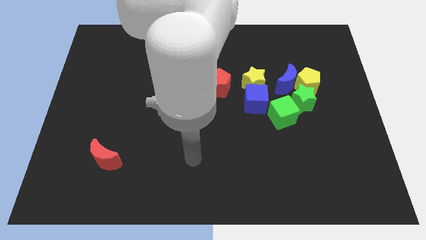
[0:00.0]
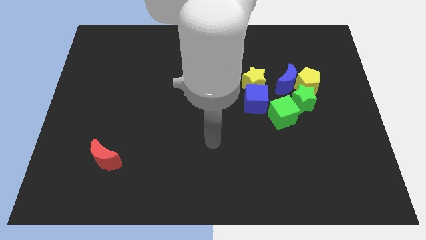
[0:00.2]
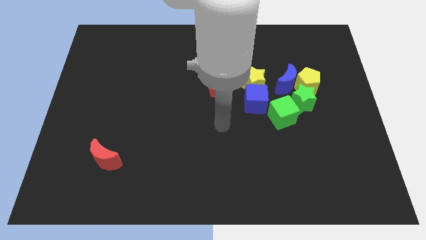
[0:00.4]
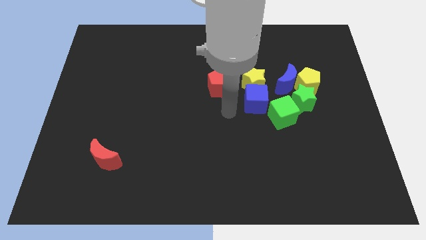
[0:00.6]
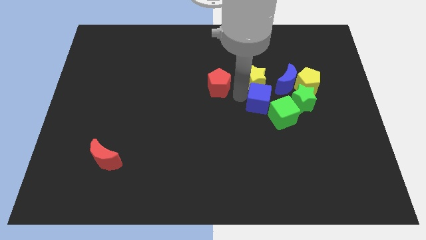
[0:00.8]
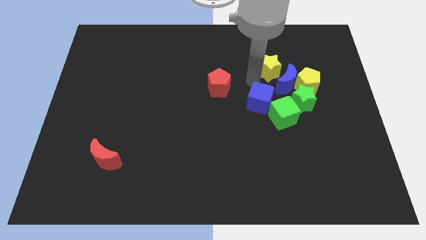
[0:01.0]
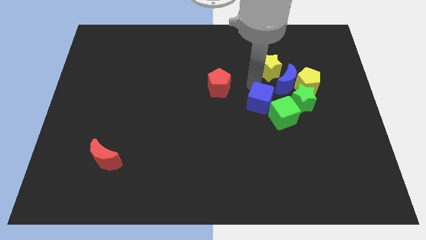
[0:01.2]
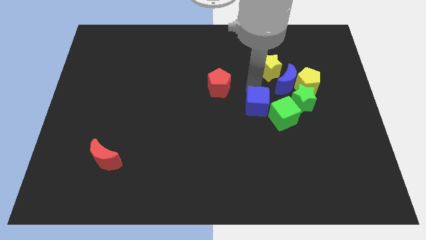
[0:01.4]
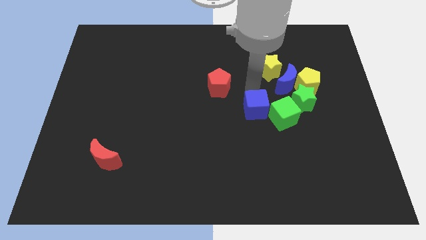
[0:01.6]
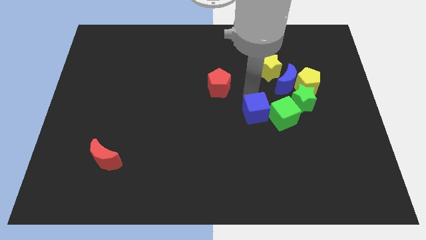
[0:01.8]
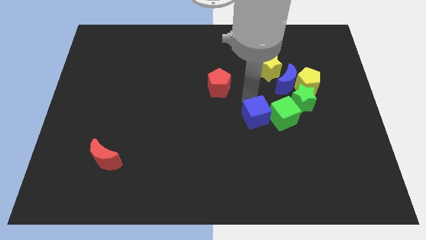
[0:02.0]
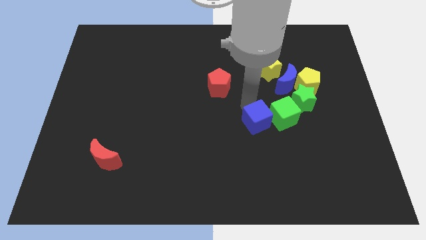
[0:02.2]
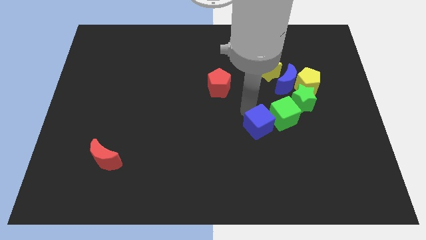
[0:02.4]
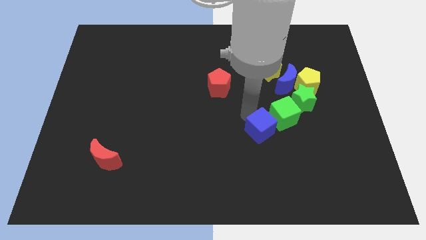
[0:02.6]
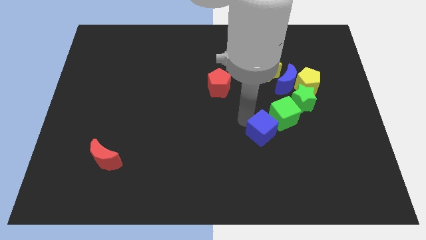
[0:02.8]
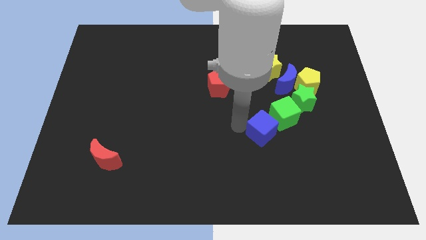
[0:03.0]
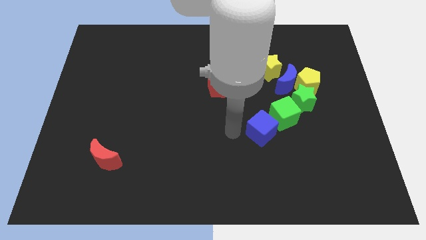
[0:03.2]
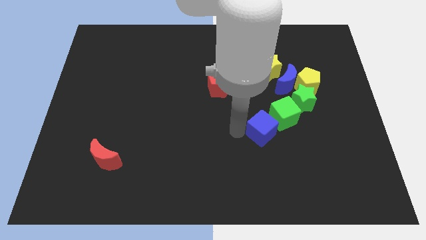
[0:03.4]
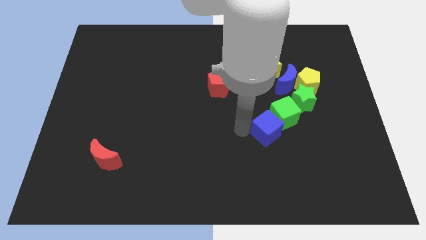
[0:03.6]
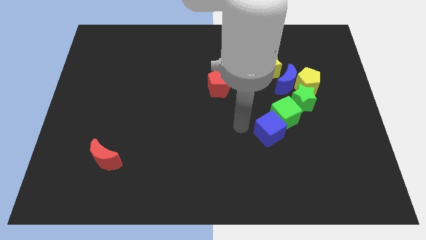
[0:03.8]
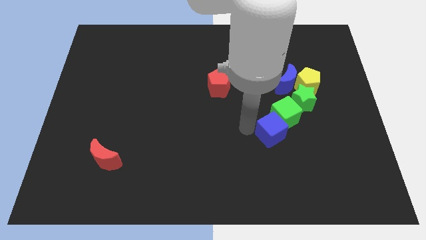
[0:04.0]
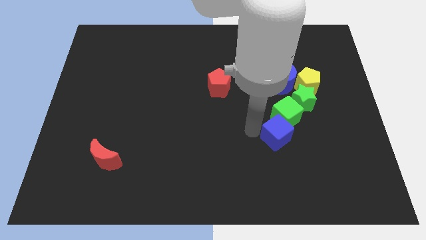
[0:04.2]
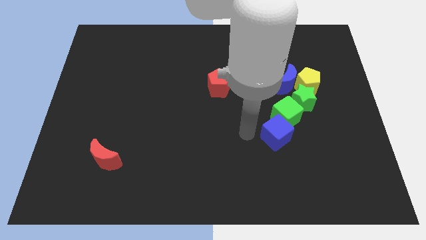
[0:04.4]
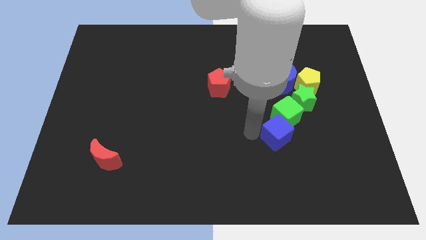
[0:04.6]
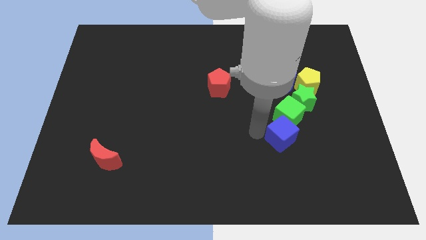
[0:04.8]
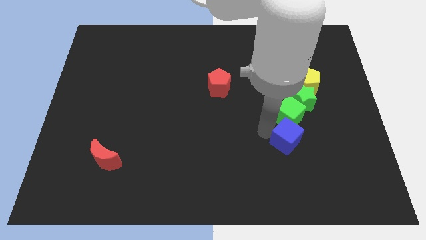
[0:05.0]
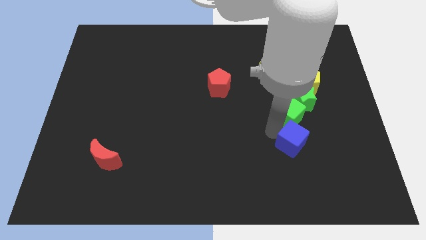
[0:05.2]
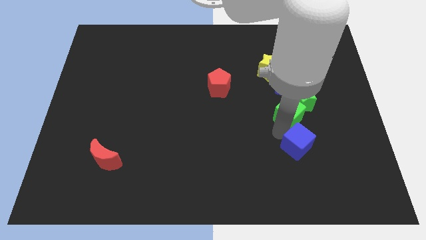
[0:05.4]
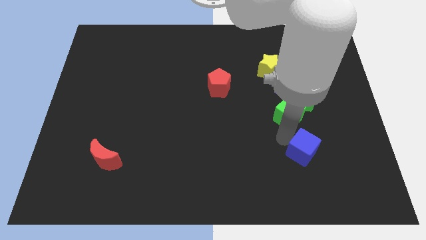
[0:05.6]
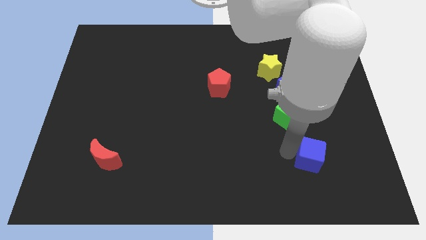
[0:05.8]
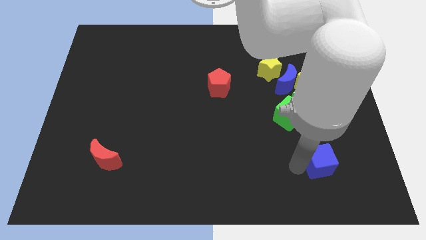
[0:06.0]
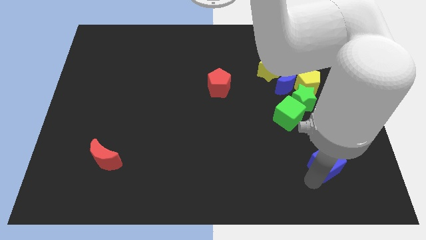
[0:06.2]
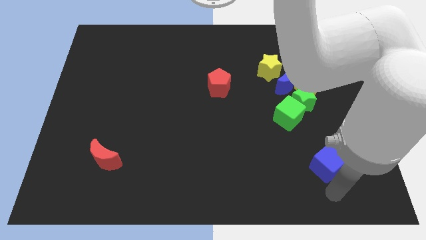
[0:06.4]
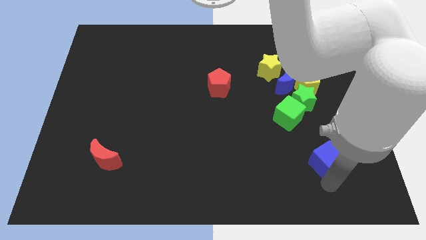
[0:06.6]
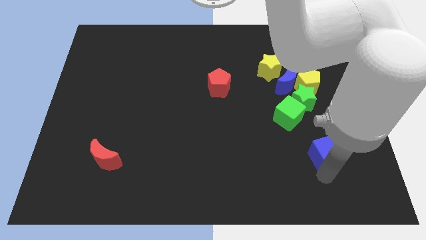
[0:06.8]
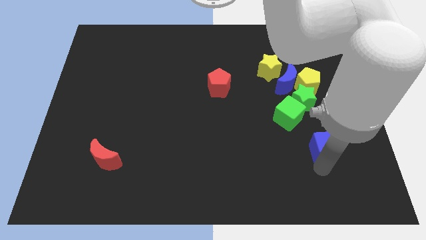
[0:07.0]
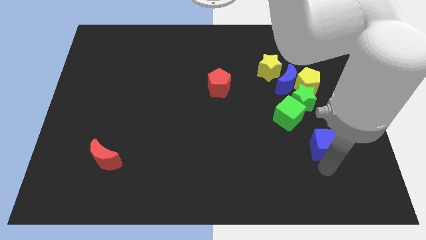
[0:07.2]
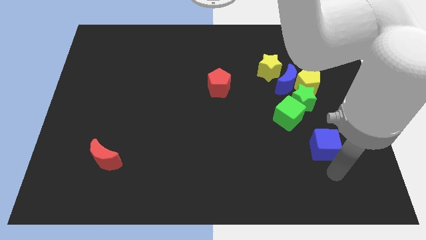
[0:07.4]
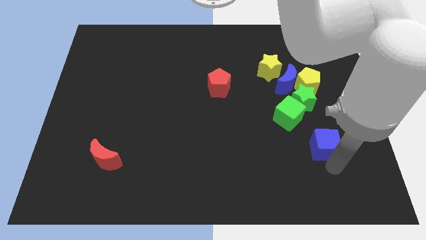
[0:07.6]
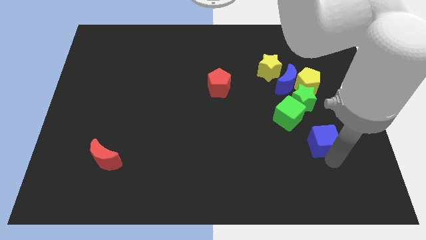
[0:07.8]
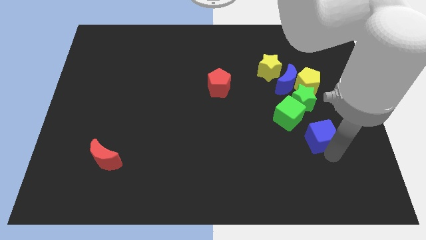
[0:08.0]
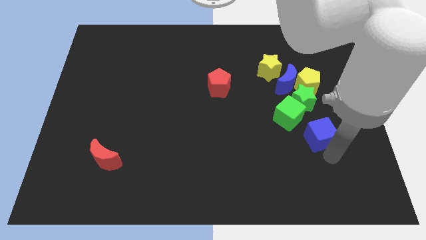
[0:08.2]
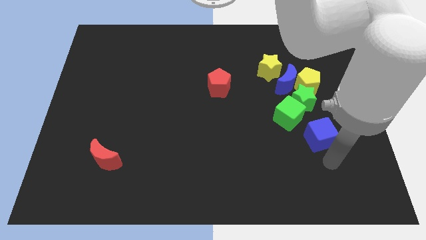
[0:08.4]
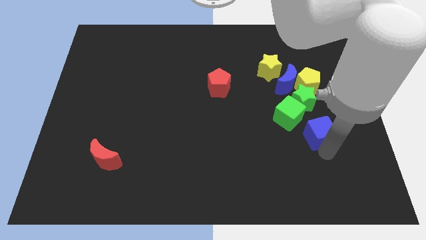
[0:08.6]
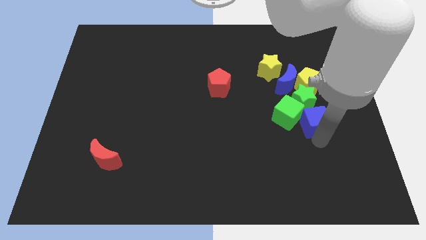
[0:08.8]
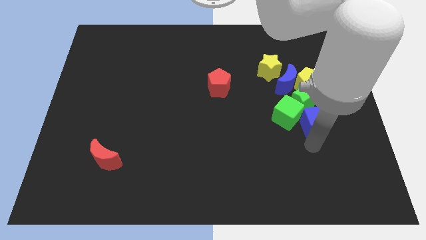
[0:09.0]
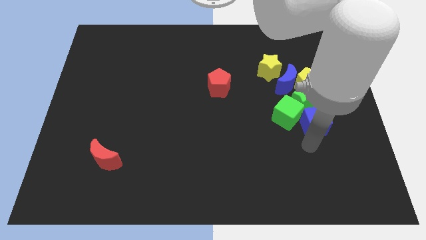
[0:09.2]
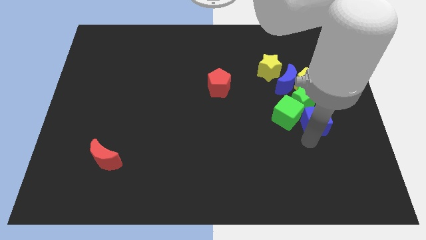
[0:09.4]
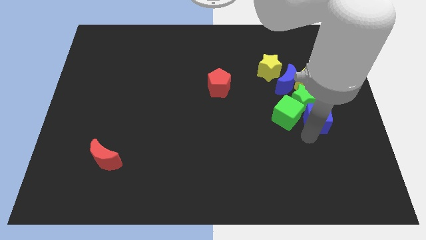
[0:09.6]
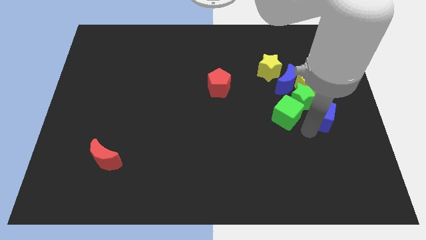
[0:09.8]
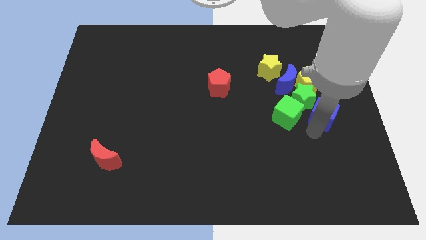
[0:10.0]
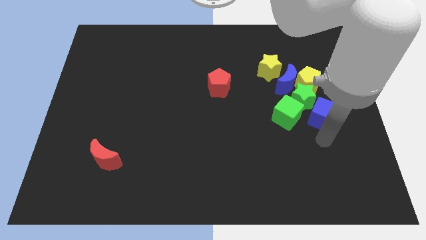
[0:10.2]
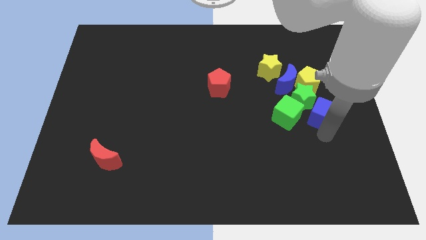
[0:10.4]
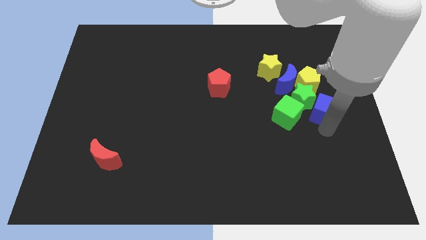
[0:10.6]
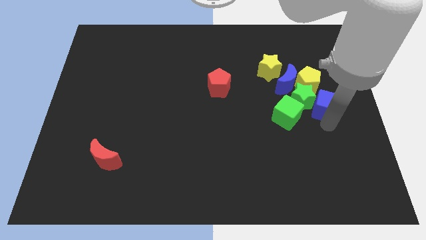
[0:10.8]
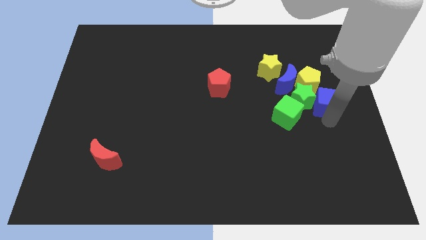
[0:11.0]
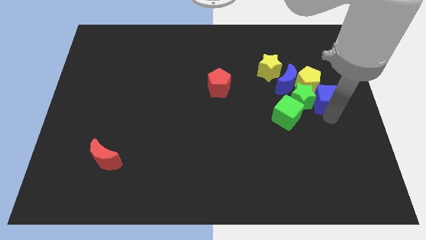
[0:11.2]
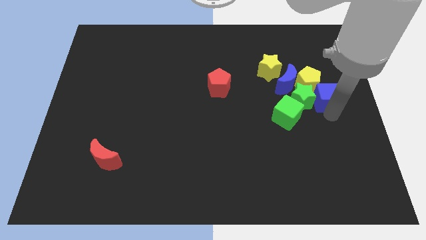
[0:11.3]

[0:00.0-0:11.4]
slide the blue cube close to the yellow pentagon

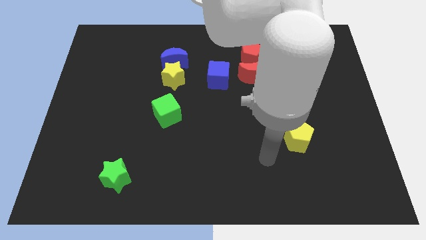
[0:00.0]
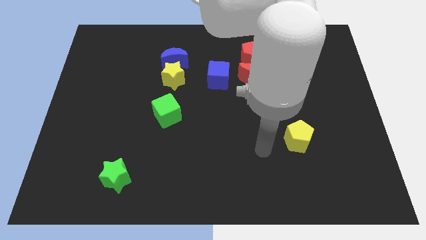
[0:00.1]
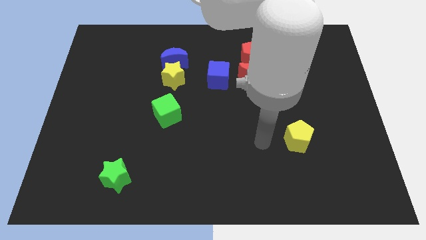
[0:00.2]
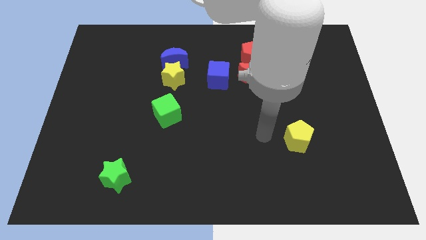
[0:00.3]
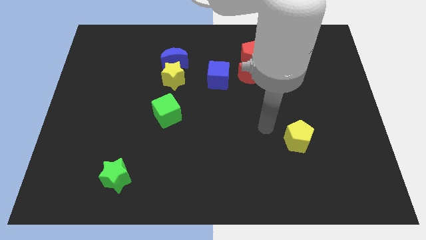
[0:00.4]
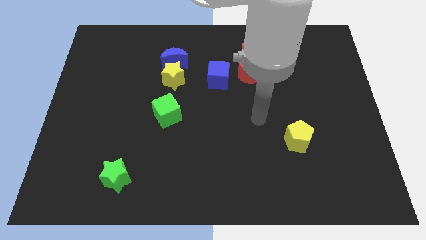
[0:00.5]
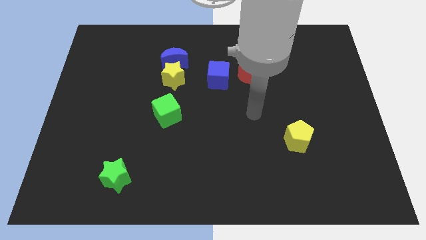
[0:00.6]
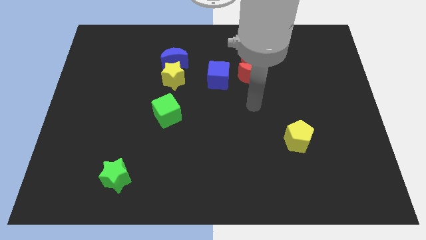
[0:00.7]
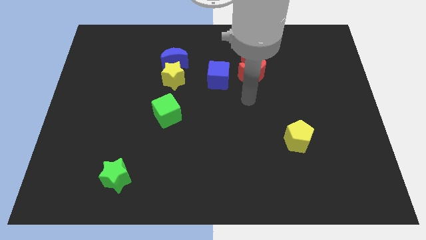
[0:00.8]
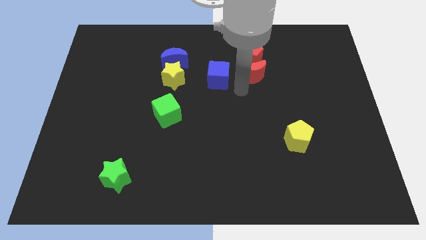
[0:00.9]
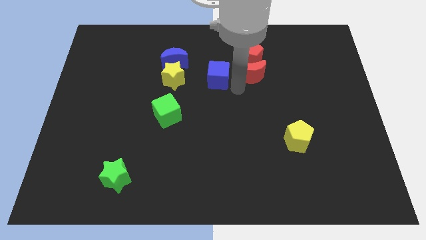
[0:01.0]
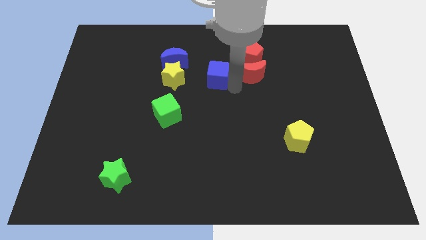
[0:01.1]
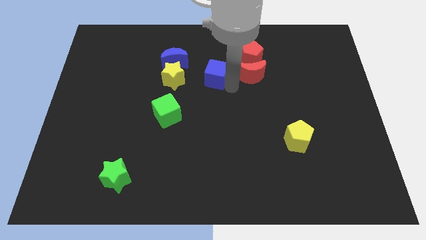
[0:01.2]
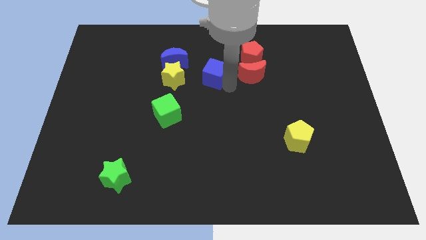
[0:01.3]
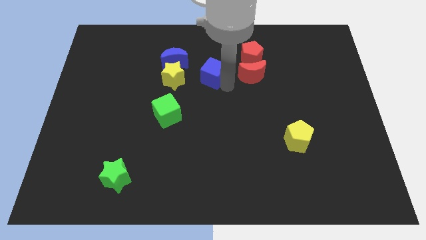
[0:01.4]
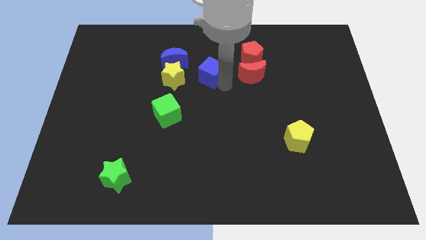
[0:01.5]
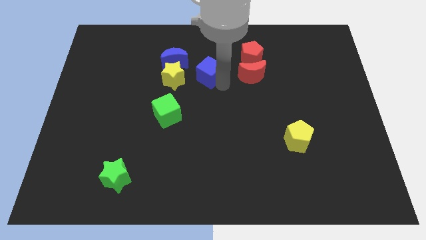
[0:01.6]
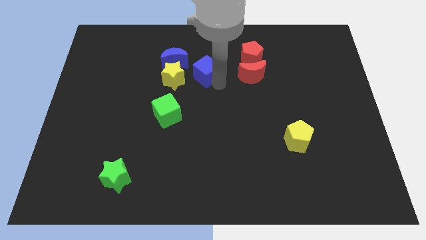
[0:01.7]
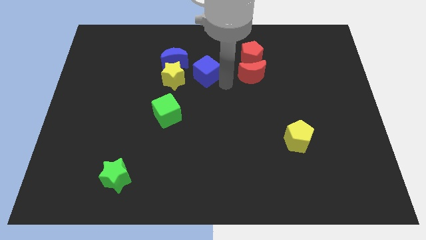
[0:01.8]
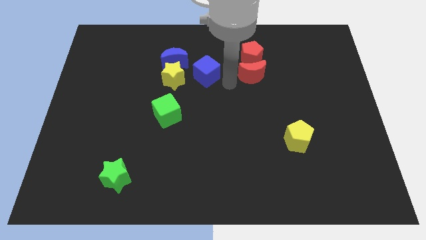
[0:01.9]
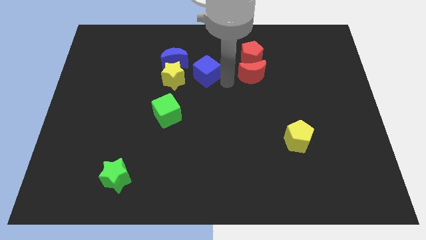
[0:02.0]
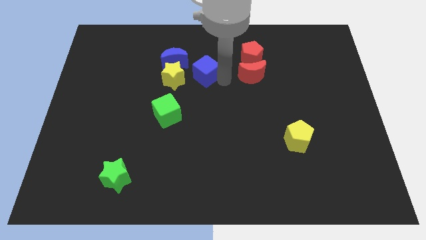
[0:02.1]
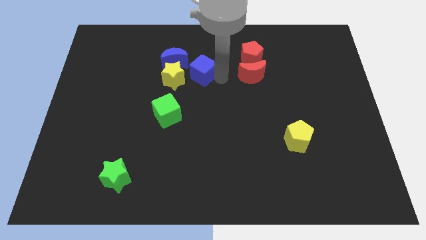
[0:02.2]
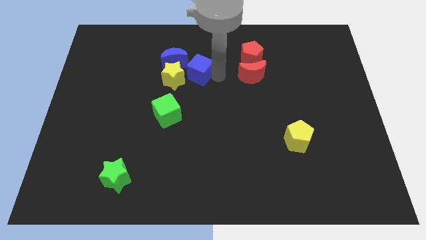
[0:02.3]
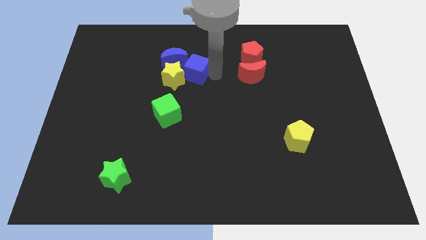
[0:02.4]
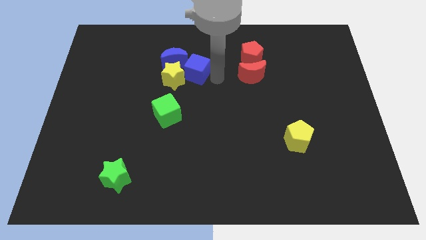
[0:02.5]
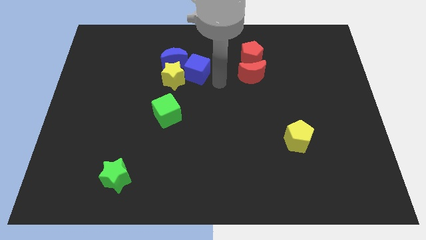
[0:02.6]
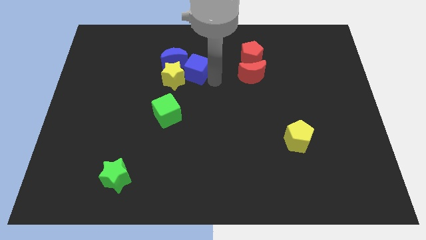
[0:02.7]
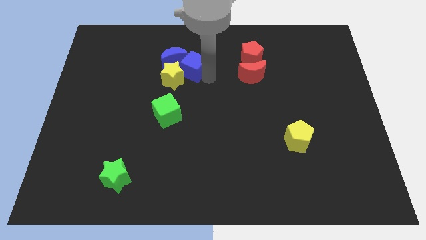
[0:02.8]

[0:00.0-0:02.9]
slide the blue cube next to the blue moon
